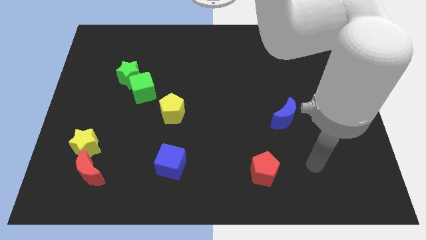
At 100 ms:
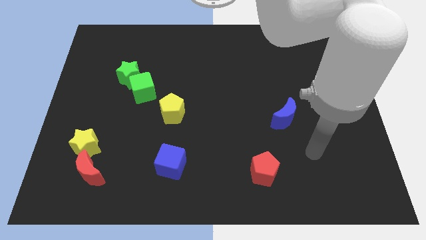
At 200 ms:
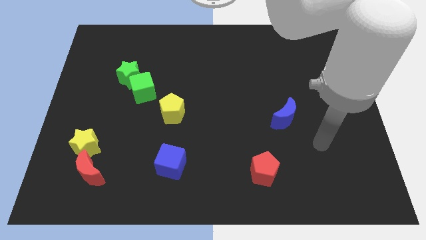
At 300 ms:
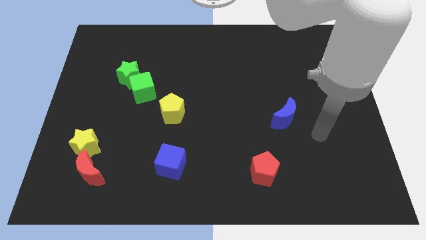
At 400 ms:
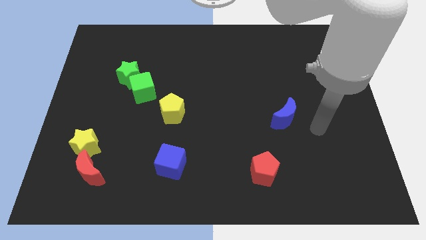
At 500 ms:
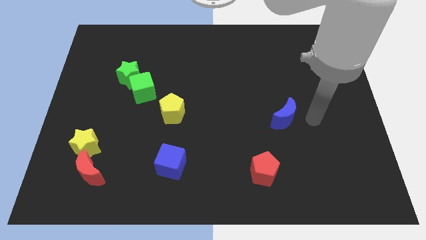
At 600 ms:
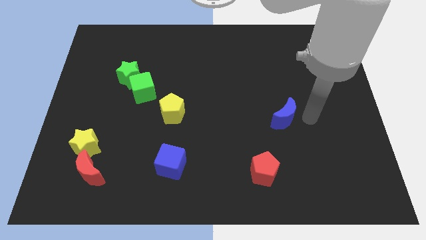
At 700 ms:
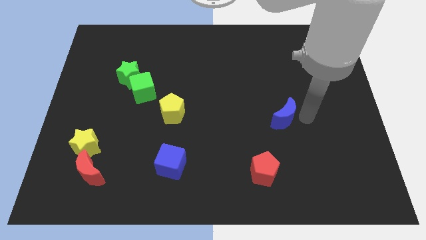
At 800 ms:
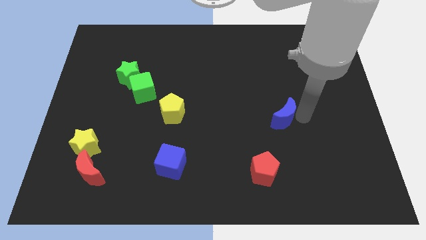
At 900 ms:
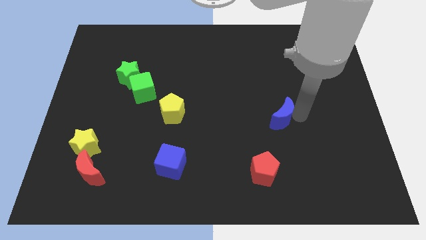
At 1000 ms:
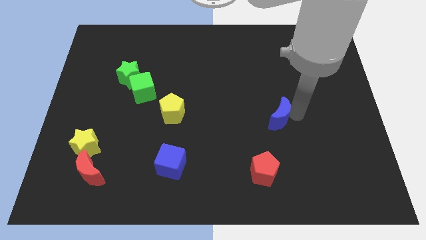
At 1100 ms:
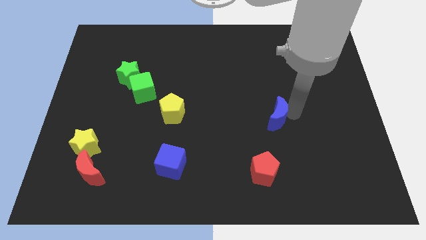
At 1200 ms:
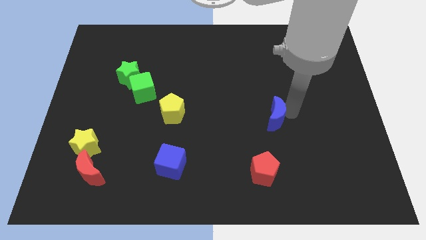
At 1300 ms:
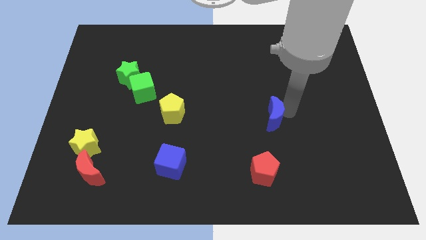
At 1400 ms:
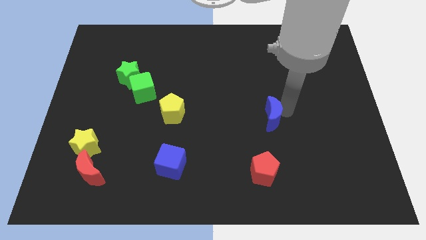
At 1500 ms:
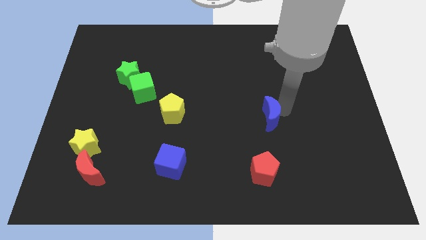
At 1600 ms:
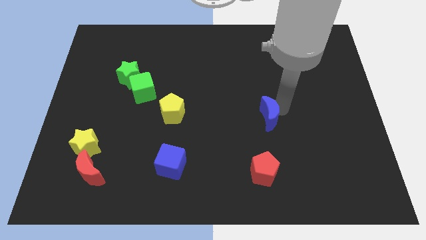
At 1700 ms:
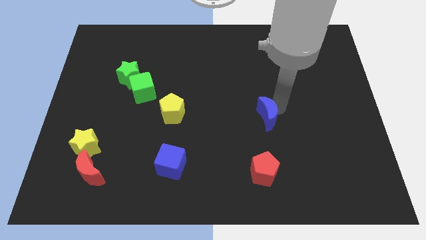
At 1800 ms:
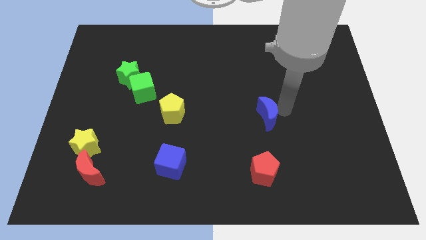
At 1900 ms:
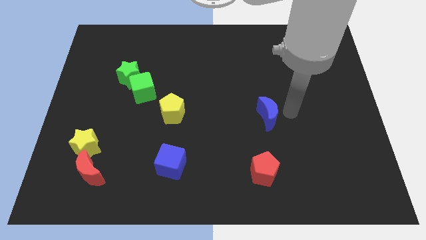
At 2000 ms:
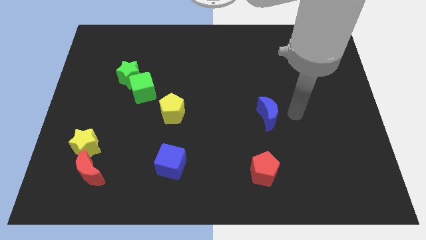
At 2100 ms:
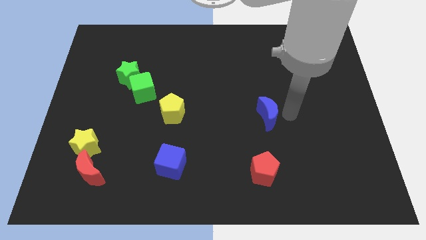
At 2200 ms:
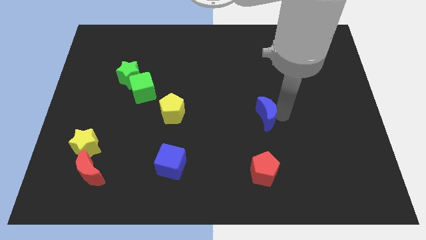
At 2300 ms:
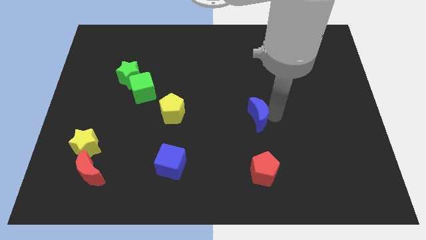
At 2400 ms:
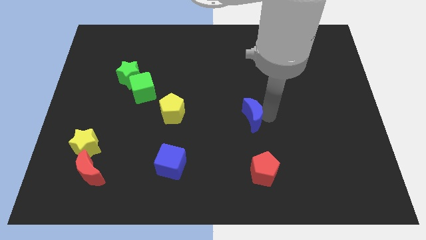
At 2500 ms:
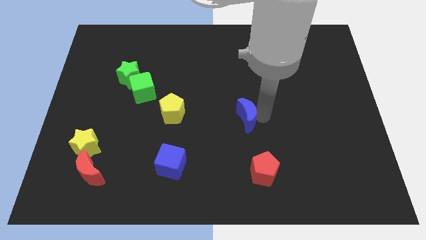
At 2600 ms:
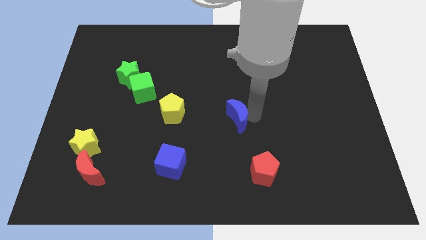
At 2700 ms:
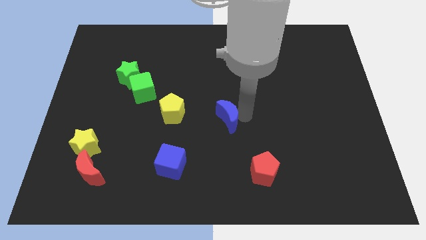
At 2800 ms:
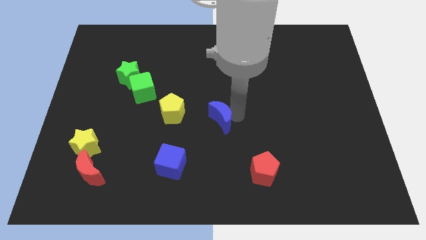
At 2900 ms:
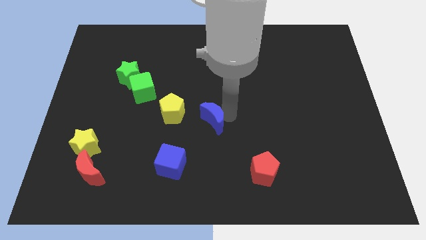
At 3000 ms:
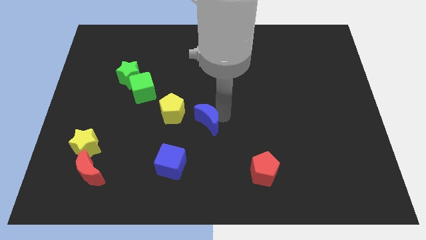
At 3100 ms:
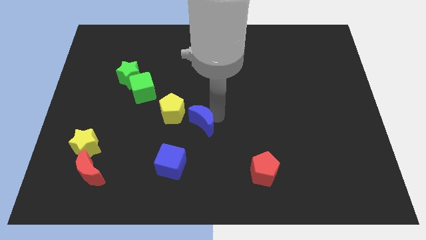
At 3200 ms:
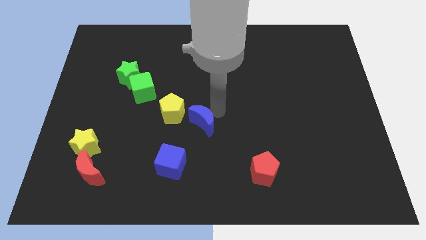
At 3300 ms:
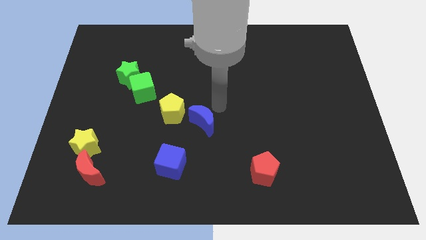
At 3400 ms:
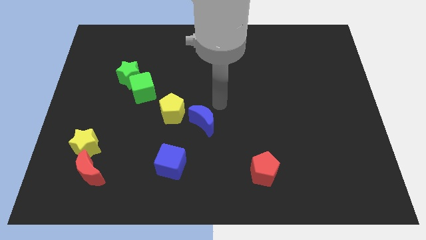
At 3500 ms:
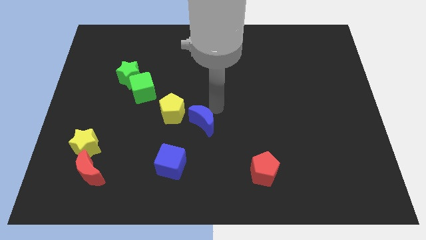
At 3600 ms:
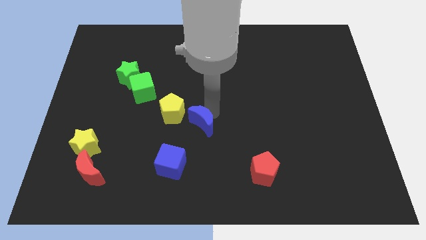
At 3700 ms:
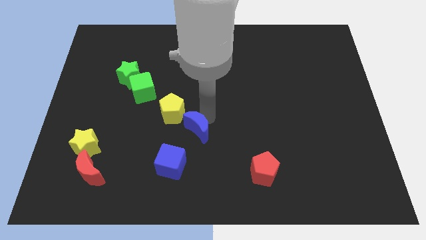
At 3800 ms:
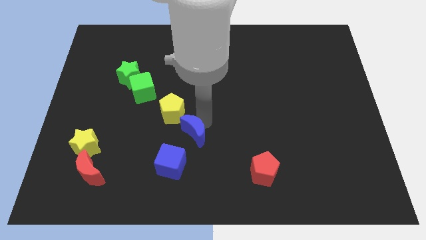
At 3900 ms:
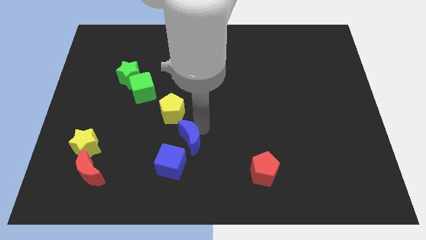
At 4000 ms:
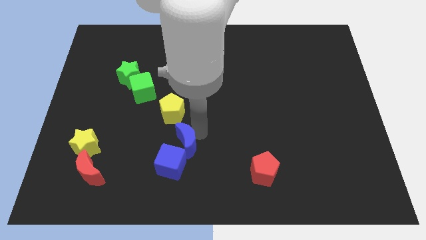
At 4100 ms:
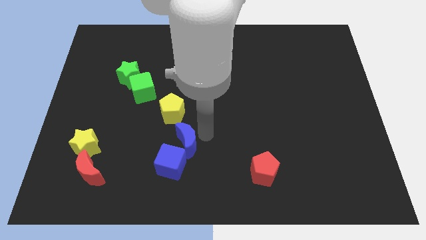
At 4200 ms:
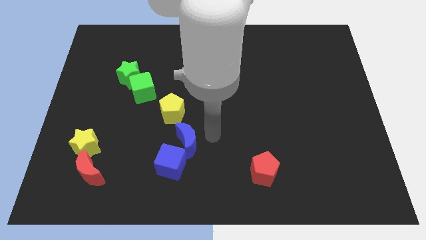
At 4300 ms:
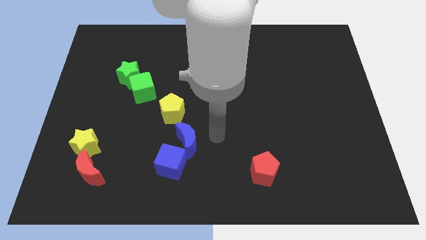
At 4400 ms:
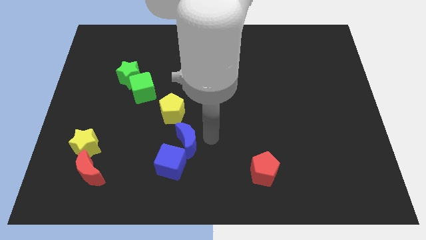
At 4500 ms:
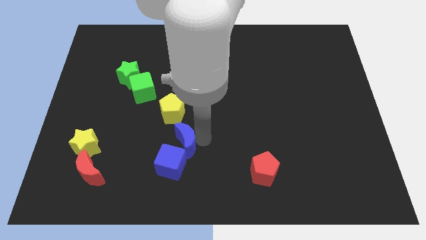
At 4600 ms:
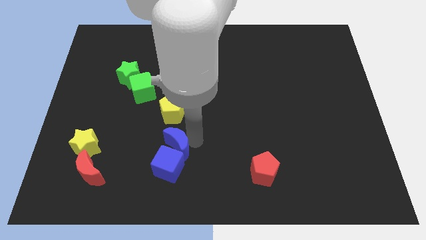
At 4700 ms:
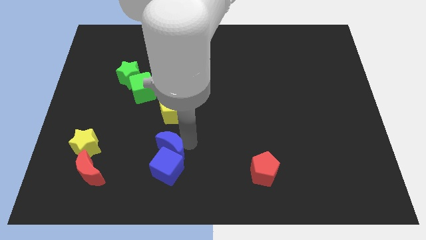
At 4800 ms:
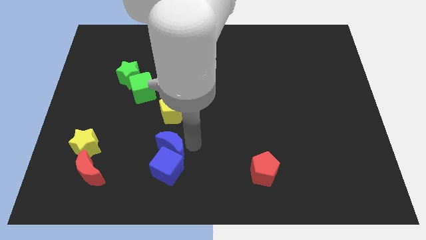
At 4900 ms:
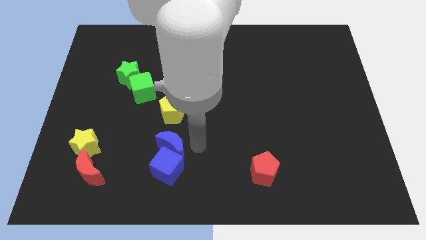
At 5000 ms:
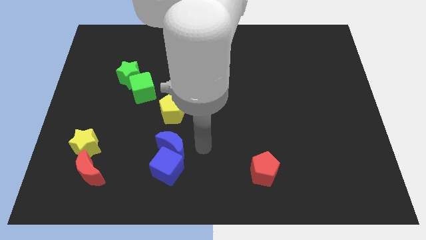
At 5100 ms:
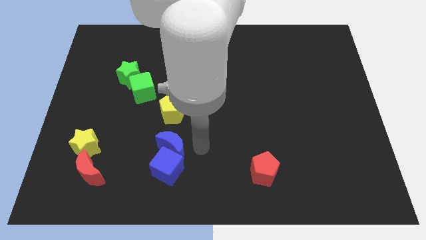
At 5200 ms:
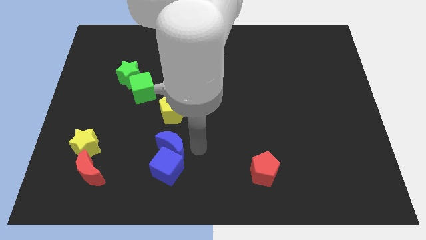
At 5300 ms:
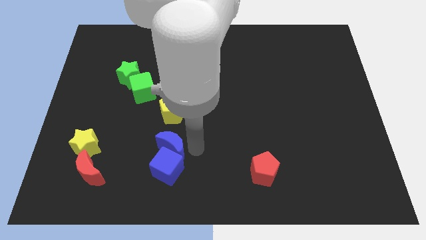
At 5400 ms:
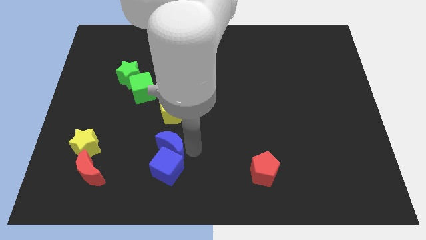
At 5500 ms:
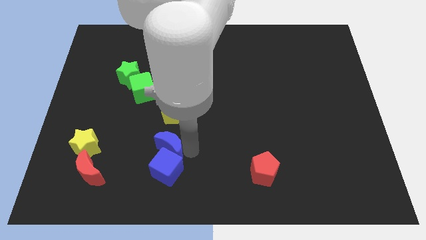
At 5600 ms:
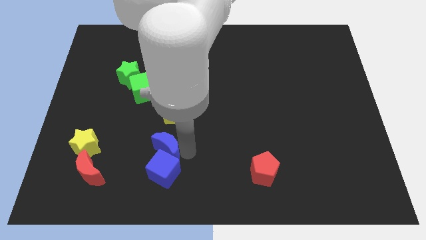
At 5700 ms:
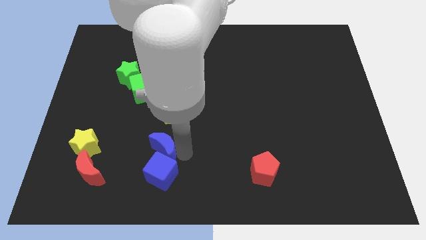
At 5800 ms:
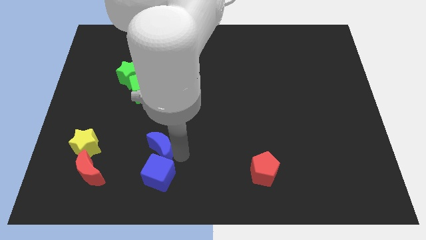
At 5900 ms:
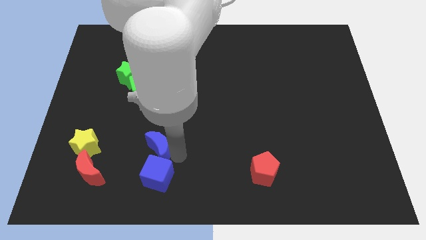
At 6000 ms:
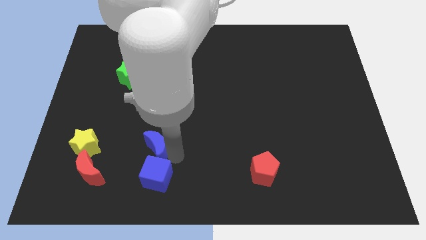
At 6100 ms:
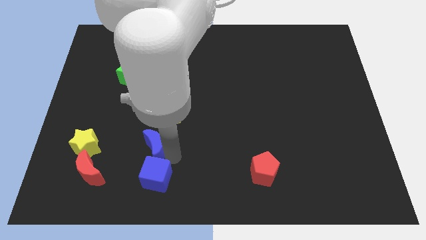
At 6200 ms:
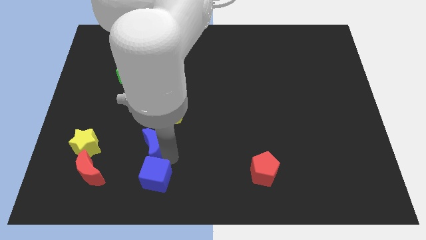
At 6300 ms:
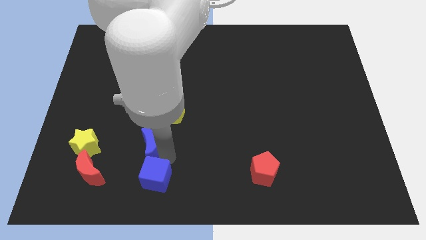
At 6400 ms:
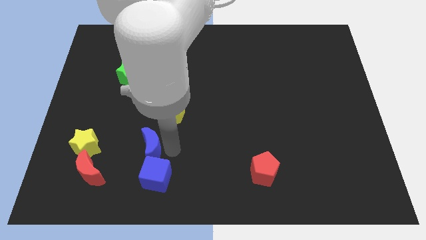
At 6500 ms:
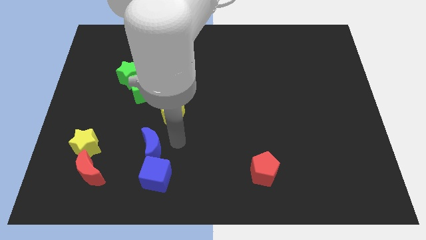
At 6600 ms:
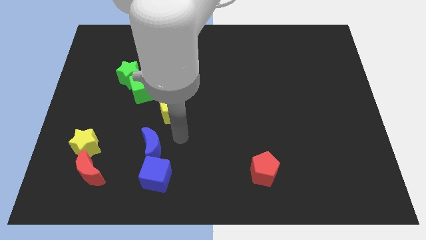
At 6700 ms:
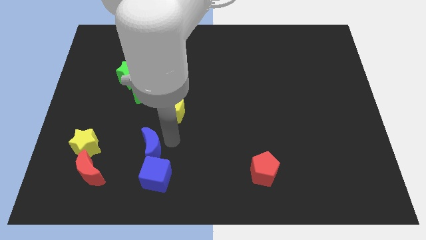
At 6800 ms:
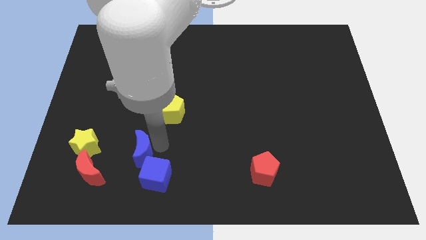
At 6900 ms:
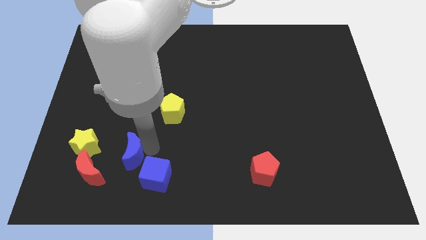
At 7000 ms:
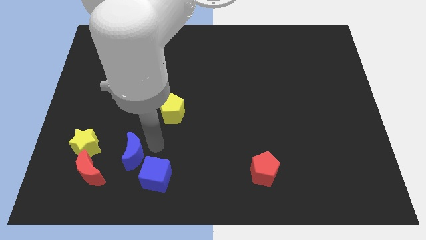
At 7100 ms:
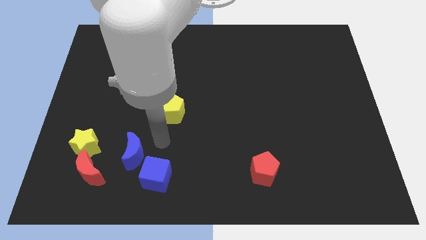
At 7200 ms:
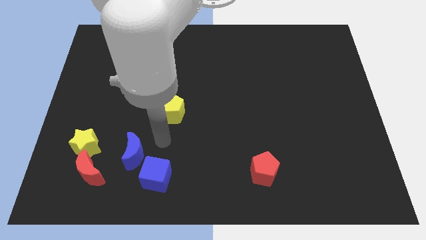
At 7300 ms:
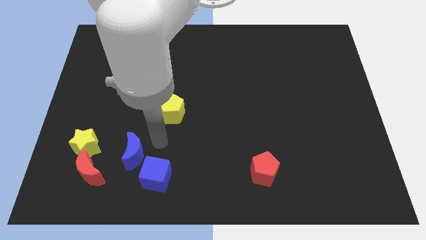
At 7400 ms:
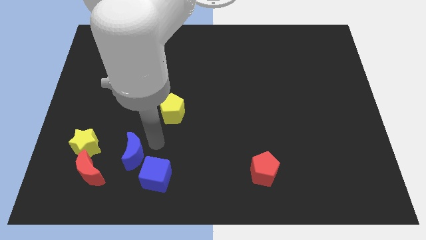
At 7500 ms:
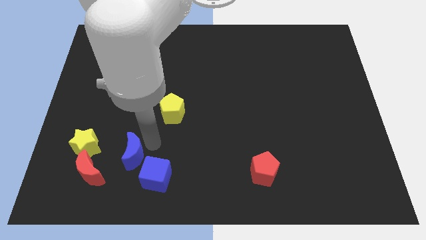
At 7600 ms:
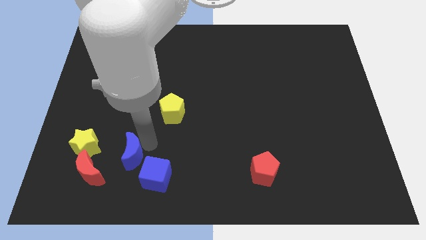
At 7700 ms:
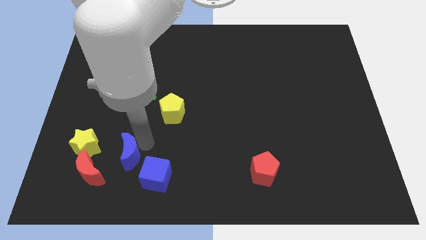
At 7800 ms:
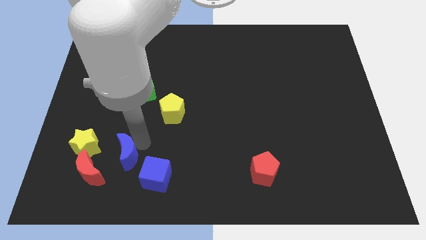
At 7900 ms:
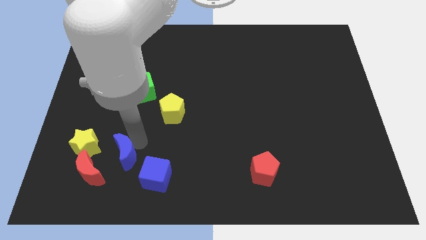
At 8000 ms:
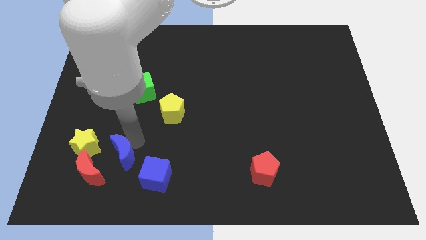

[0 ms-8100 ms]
slide the blue moon to the bottom right side of the yellow star

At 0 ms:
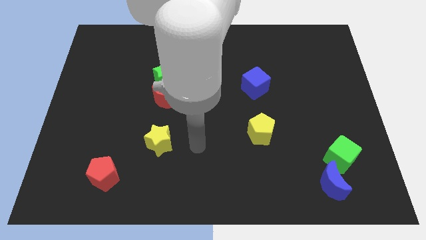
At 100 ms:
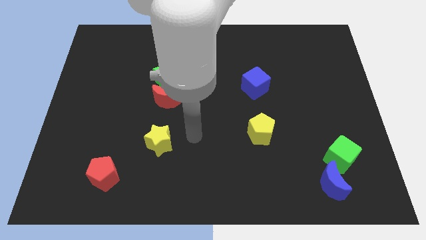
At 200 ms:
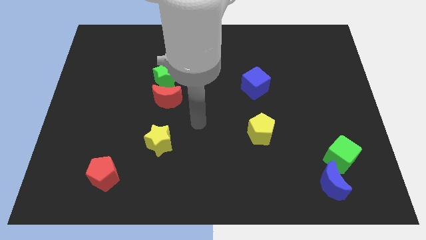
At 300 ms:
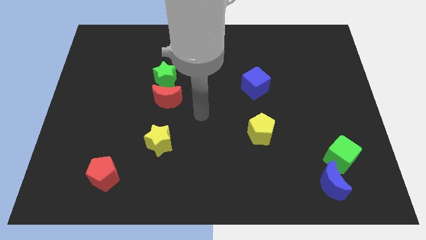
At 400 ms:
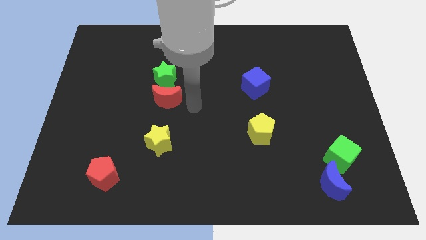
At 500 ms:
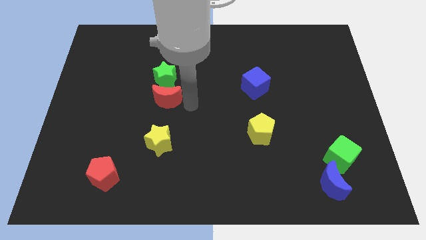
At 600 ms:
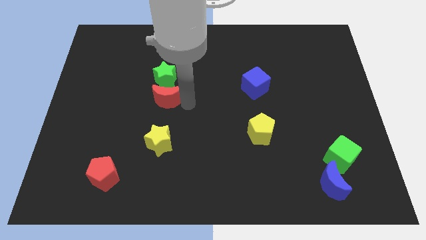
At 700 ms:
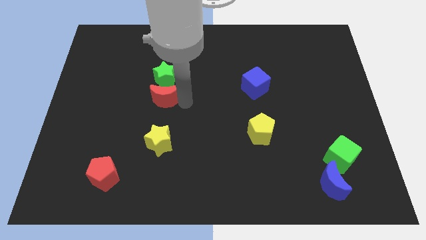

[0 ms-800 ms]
push the red moon to the bottom left of the green star
